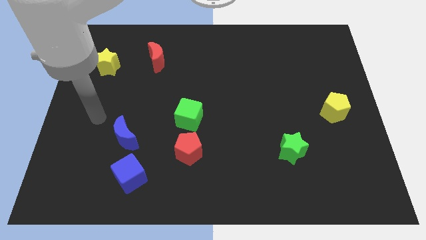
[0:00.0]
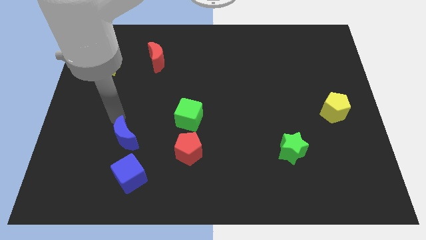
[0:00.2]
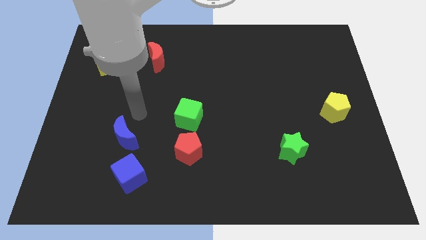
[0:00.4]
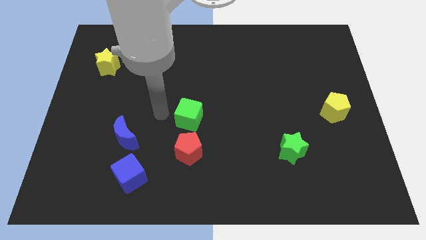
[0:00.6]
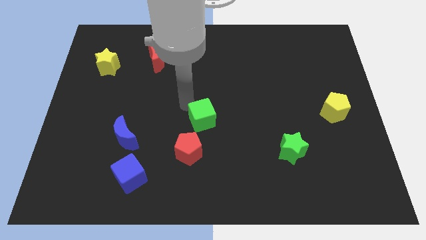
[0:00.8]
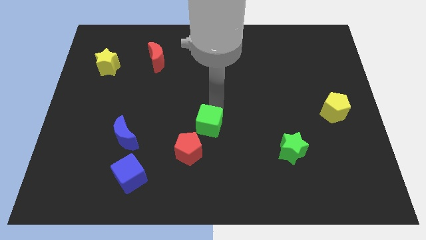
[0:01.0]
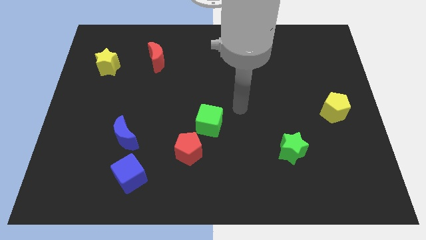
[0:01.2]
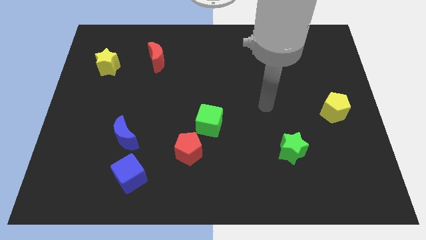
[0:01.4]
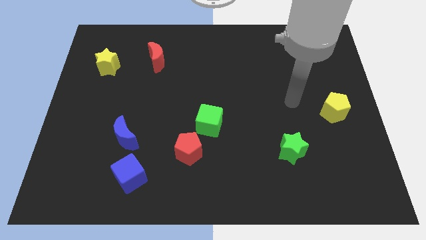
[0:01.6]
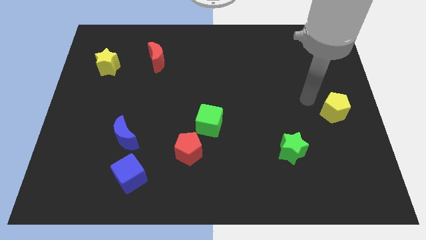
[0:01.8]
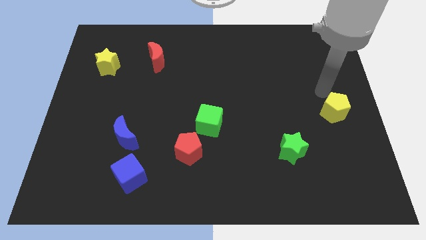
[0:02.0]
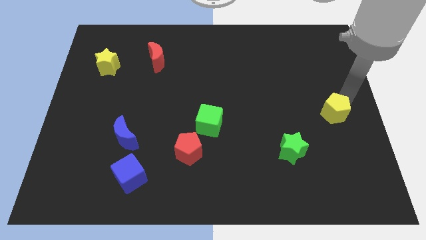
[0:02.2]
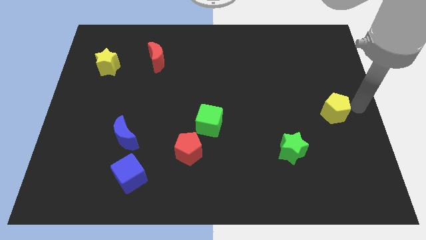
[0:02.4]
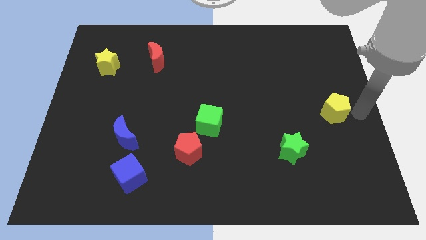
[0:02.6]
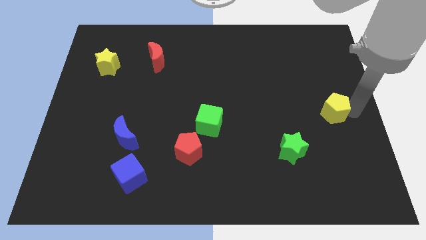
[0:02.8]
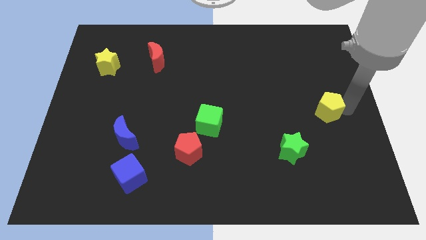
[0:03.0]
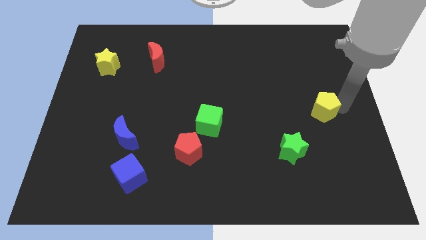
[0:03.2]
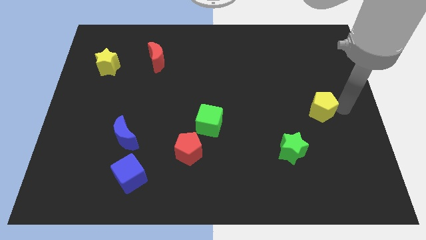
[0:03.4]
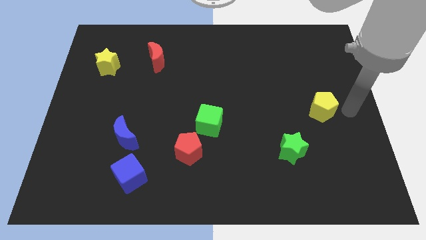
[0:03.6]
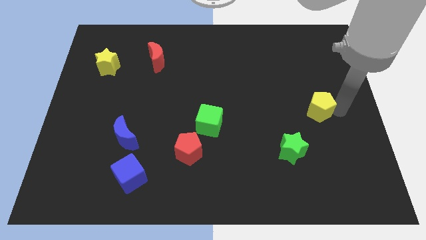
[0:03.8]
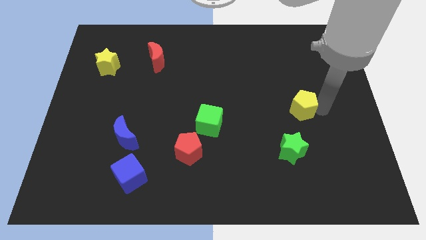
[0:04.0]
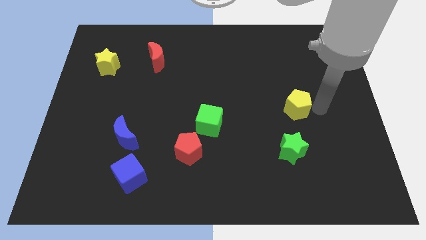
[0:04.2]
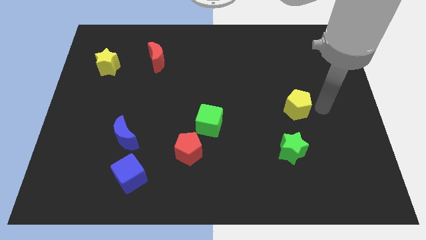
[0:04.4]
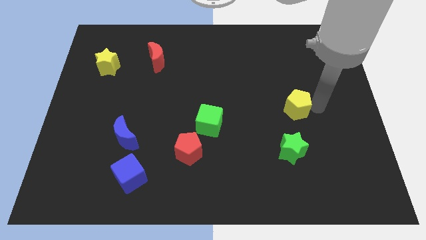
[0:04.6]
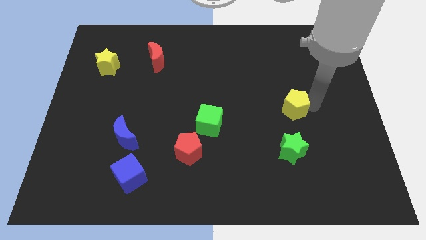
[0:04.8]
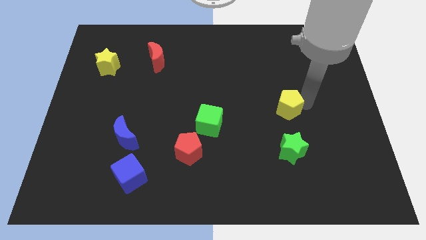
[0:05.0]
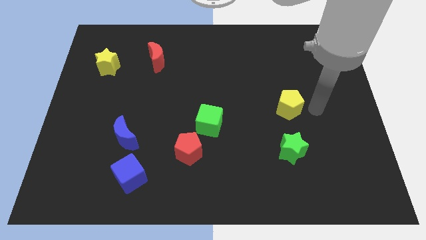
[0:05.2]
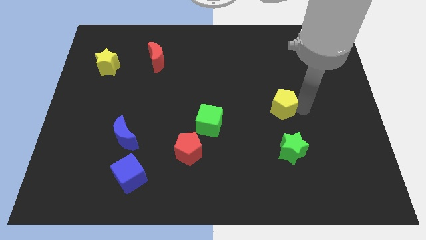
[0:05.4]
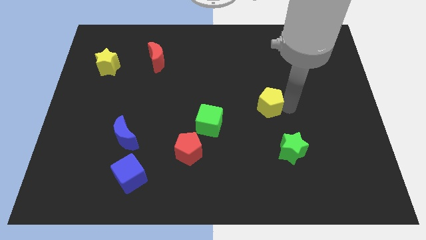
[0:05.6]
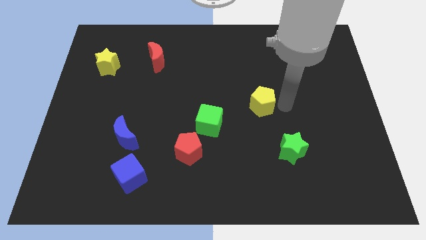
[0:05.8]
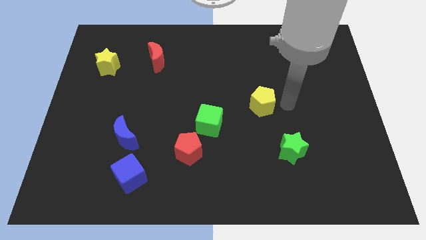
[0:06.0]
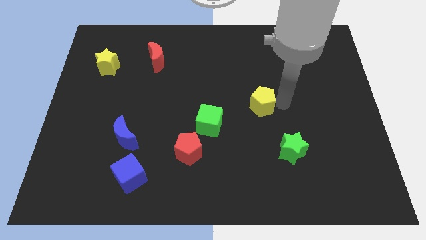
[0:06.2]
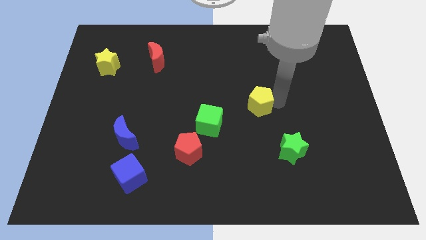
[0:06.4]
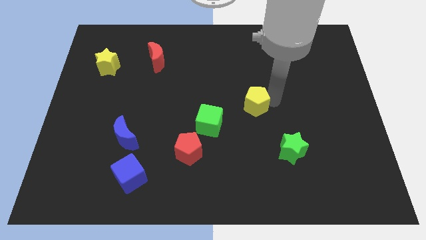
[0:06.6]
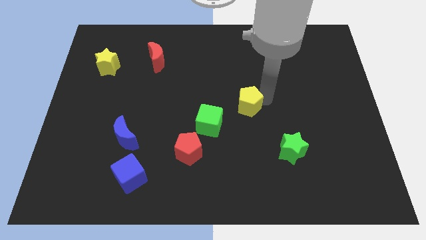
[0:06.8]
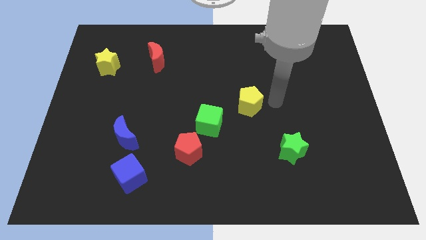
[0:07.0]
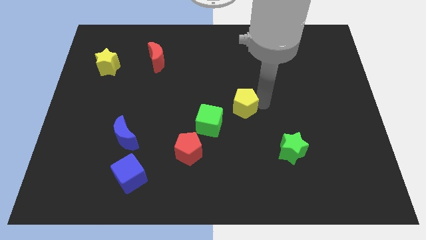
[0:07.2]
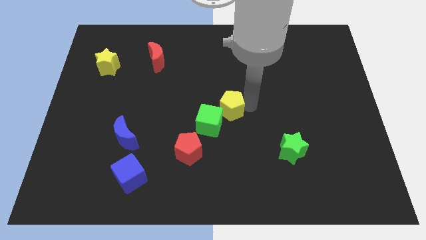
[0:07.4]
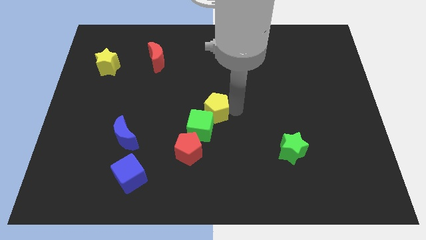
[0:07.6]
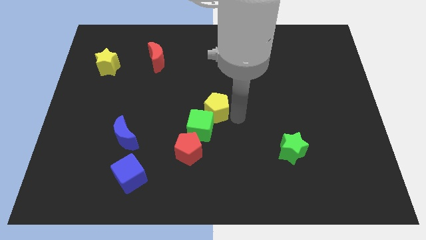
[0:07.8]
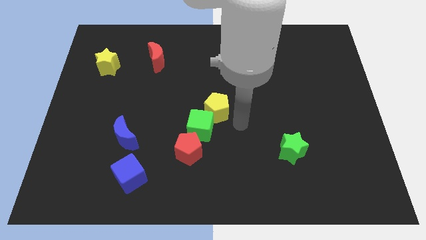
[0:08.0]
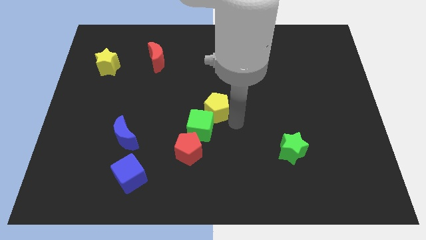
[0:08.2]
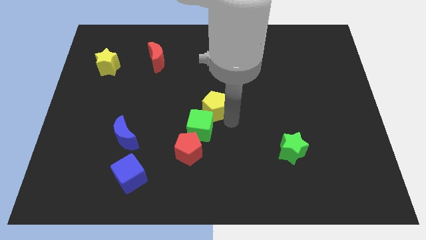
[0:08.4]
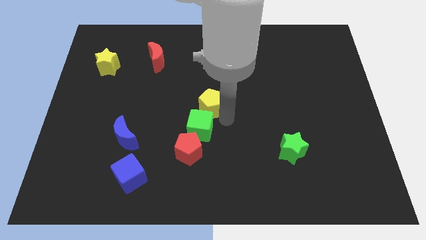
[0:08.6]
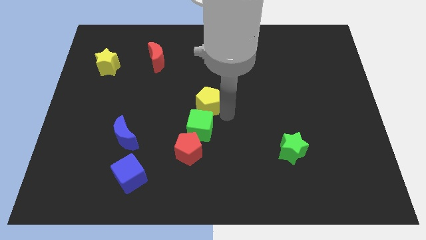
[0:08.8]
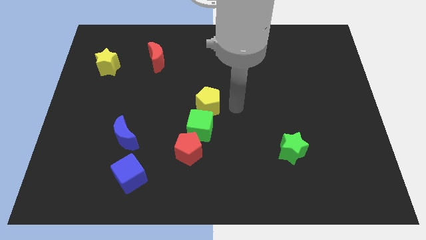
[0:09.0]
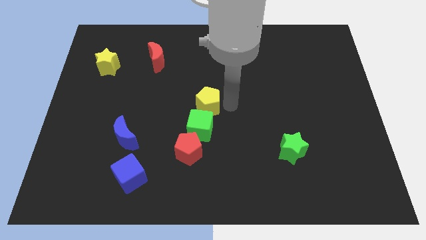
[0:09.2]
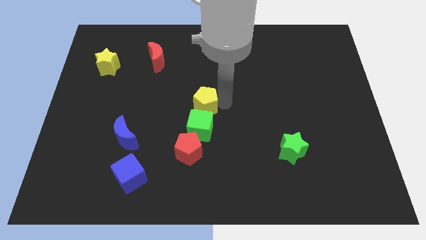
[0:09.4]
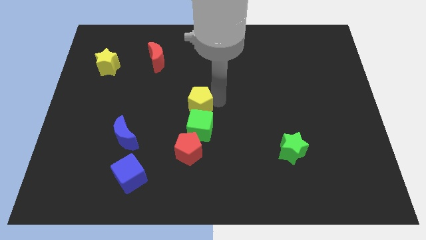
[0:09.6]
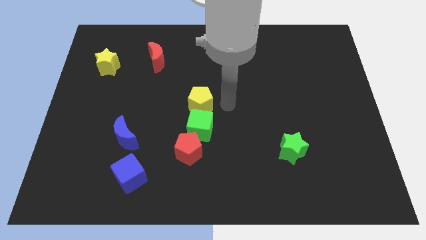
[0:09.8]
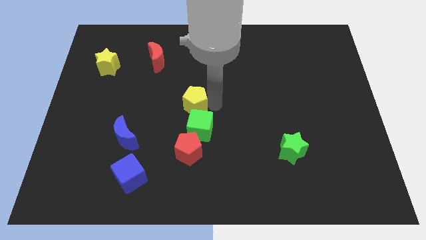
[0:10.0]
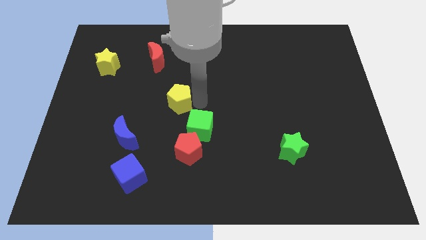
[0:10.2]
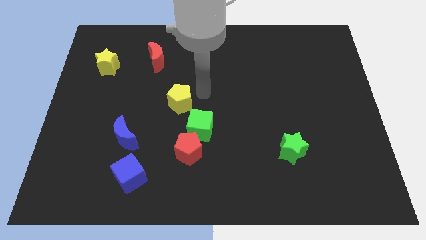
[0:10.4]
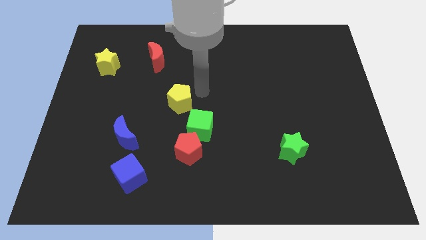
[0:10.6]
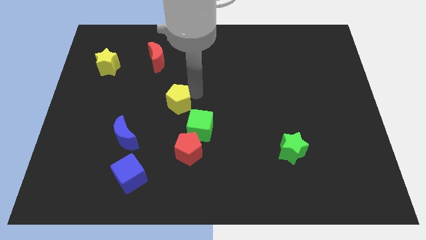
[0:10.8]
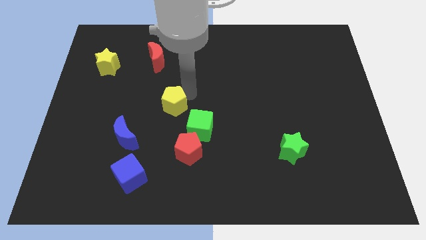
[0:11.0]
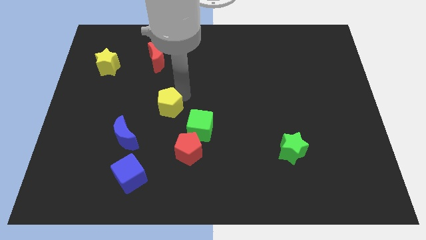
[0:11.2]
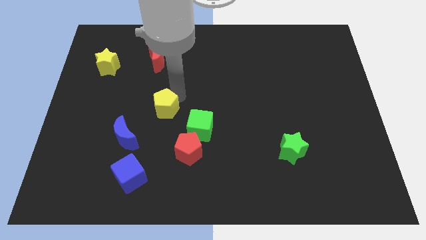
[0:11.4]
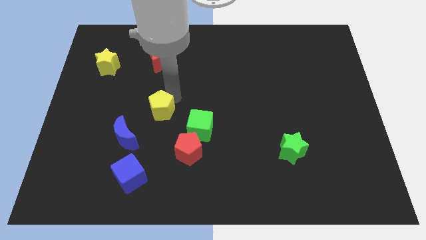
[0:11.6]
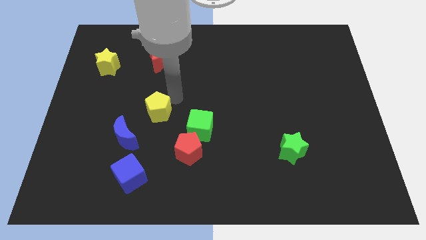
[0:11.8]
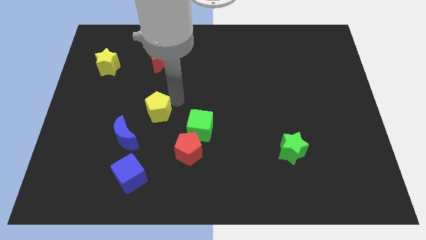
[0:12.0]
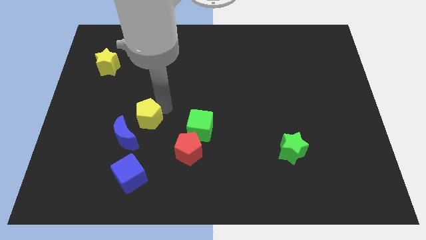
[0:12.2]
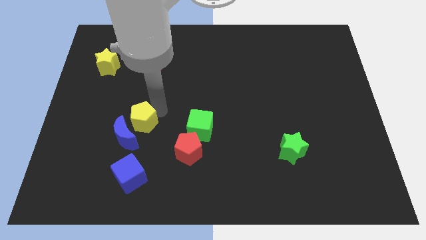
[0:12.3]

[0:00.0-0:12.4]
push the yellow pentagon next to the blue moon

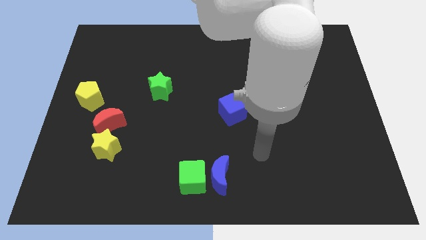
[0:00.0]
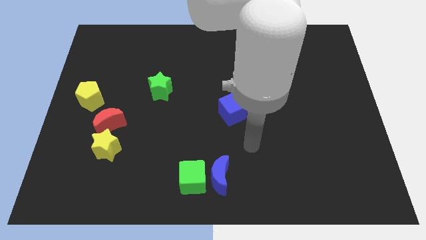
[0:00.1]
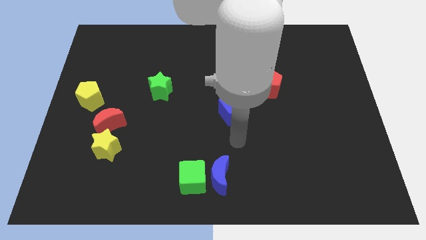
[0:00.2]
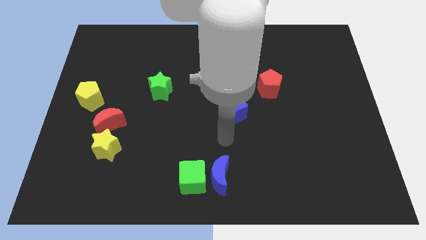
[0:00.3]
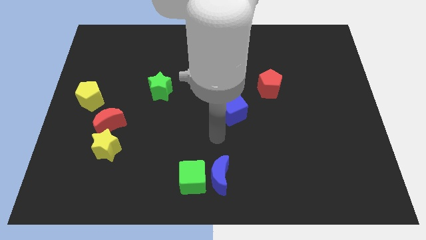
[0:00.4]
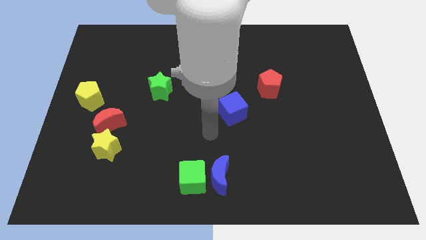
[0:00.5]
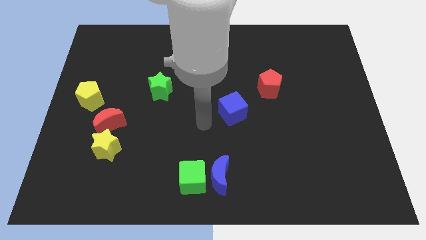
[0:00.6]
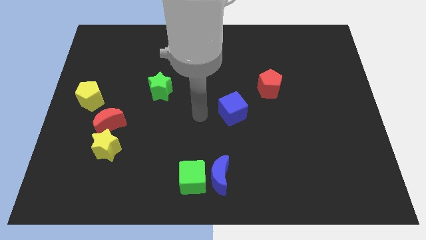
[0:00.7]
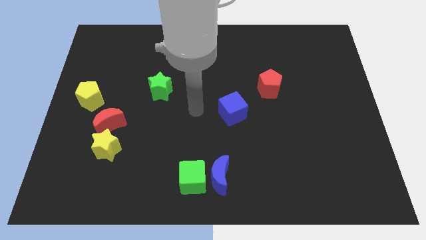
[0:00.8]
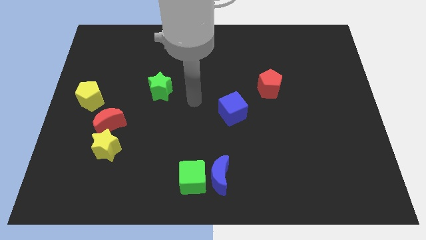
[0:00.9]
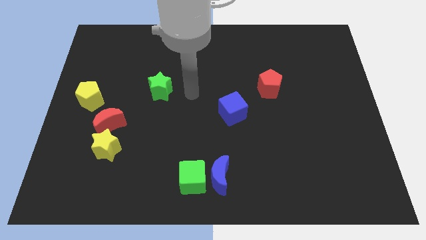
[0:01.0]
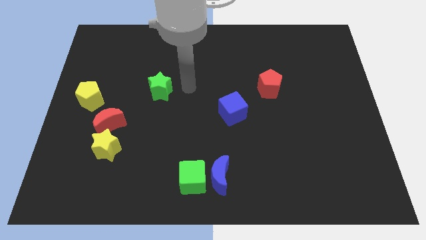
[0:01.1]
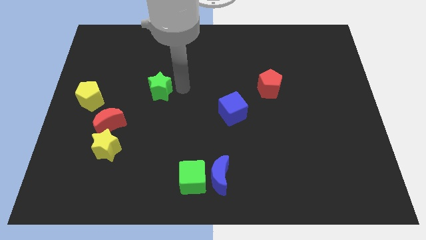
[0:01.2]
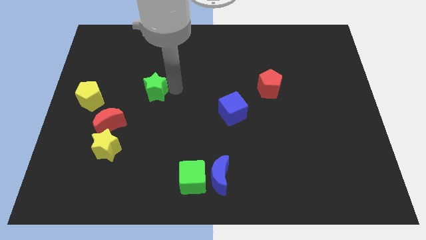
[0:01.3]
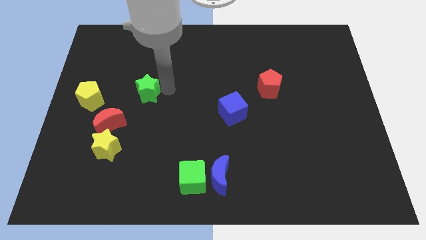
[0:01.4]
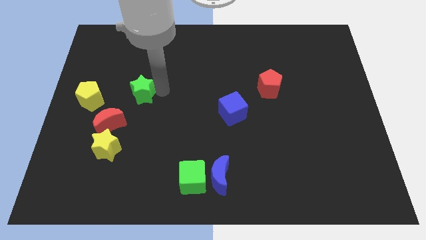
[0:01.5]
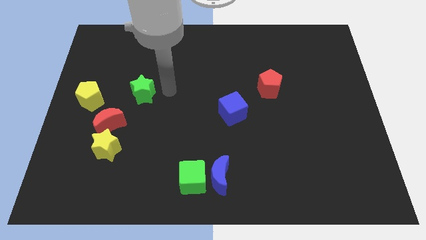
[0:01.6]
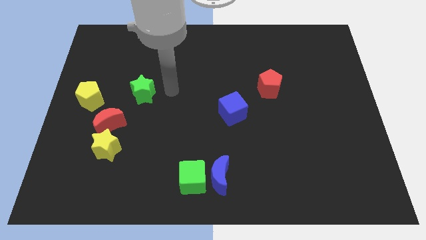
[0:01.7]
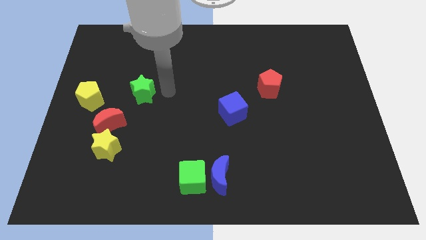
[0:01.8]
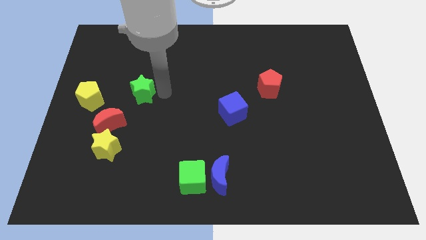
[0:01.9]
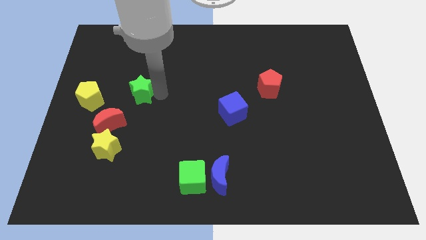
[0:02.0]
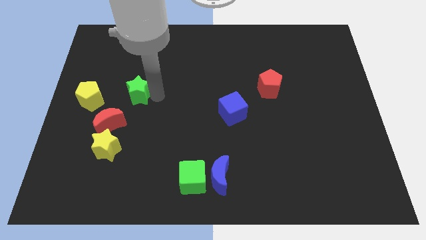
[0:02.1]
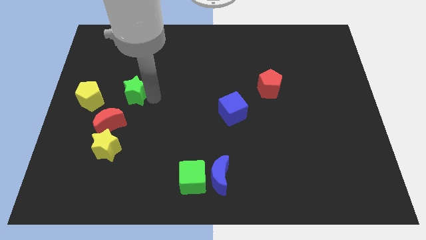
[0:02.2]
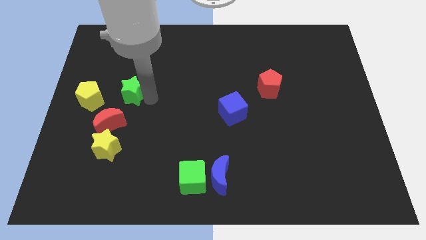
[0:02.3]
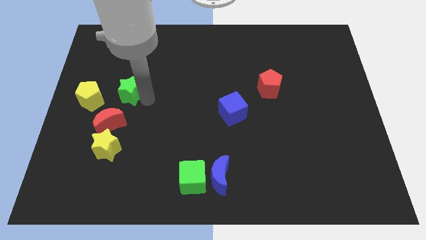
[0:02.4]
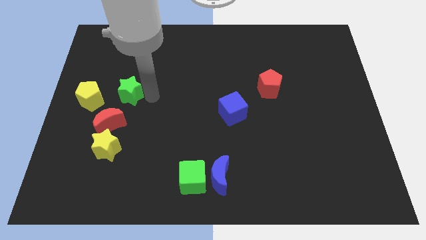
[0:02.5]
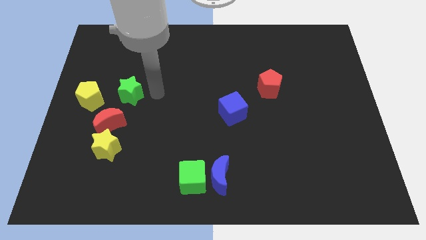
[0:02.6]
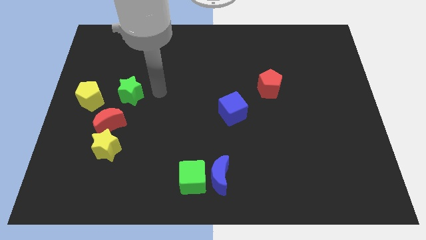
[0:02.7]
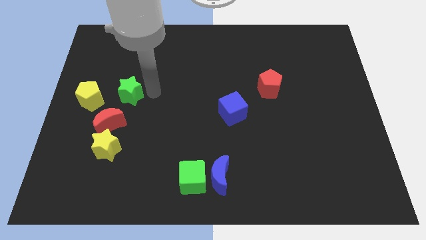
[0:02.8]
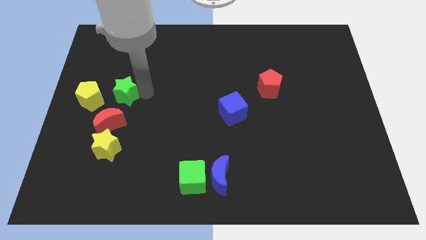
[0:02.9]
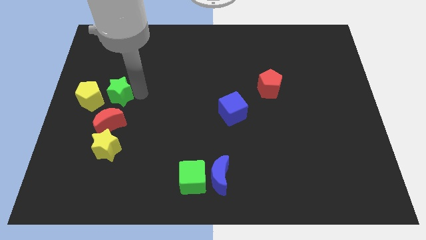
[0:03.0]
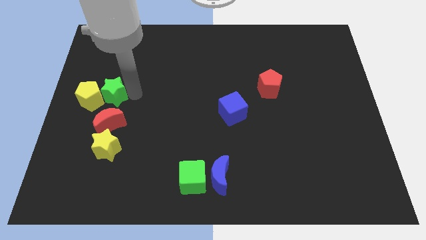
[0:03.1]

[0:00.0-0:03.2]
push the green star next to the yellow pentagon
